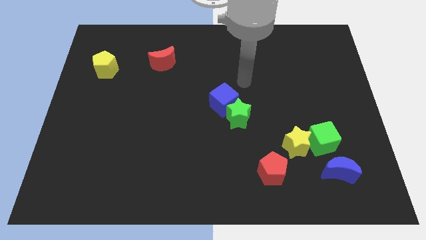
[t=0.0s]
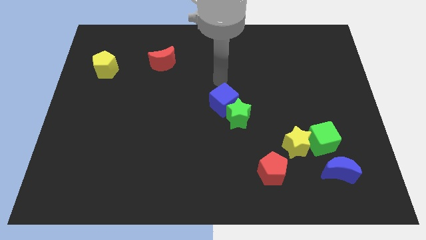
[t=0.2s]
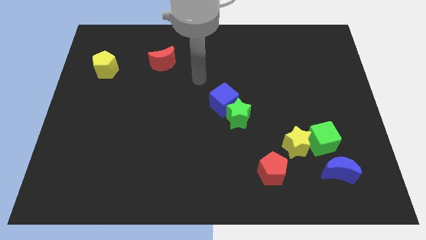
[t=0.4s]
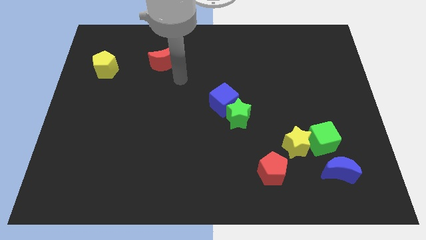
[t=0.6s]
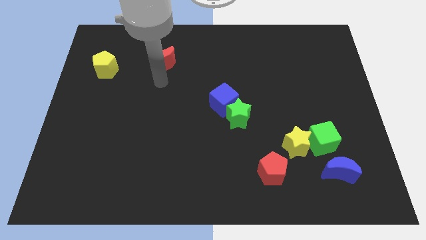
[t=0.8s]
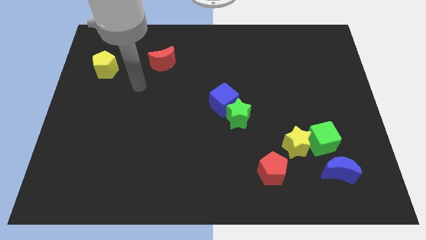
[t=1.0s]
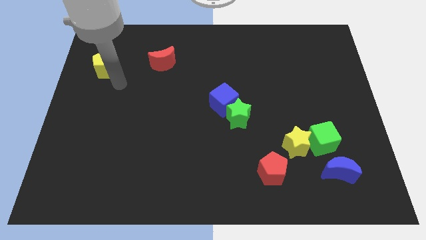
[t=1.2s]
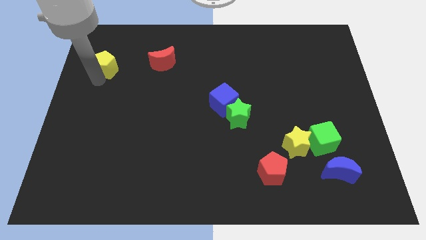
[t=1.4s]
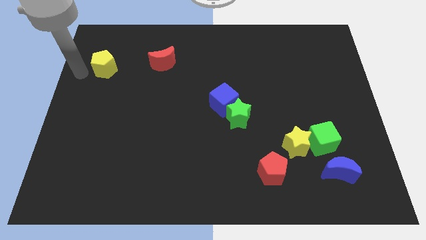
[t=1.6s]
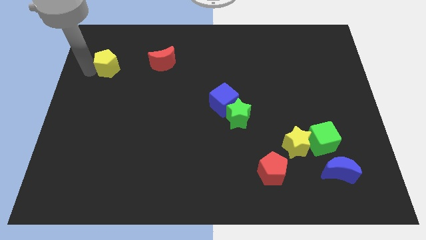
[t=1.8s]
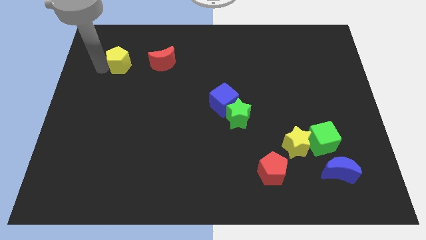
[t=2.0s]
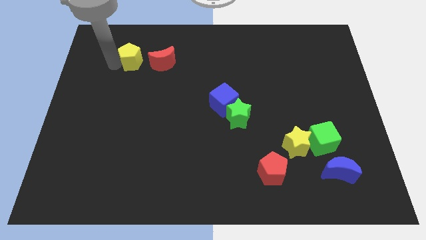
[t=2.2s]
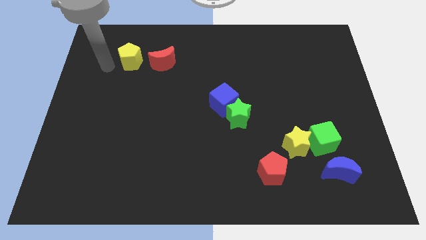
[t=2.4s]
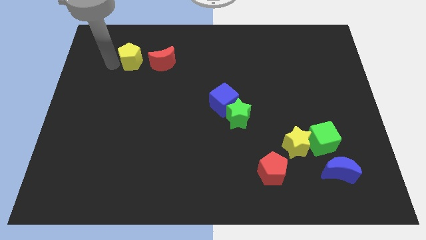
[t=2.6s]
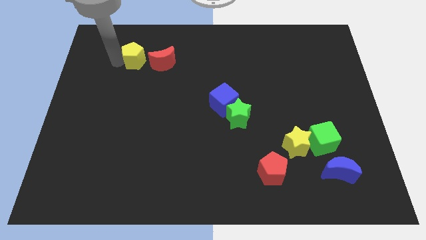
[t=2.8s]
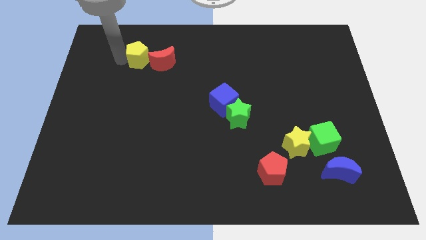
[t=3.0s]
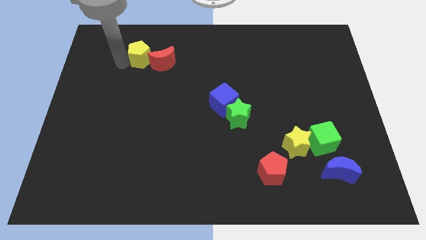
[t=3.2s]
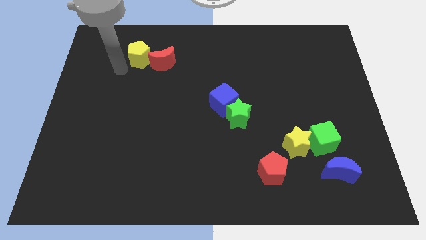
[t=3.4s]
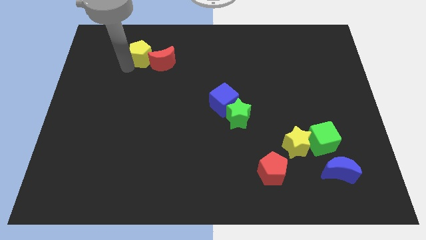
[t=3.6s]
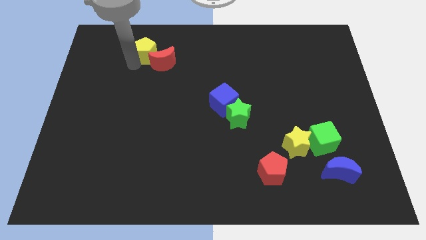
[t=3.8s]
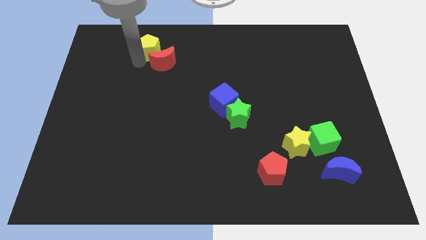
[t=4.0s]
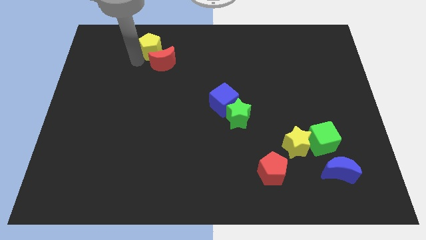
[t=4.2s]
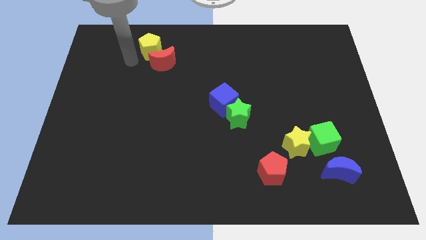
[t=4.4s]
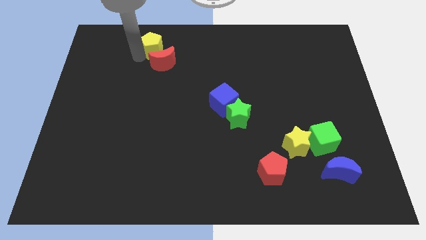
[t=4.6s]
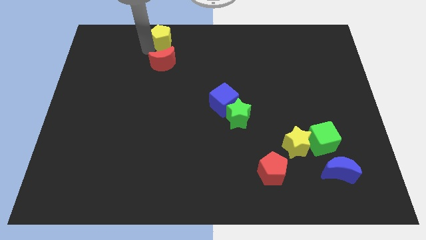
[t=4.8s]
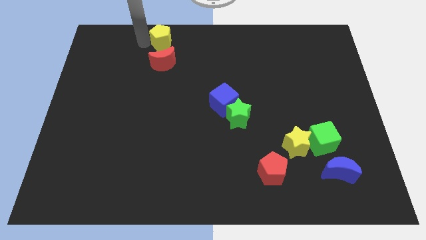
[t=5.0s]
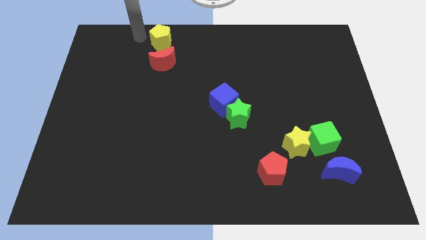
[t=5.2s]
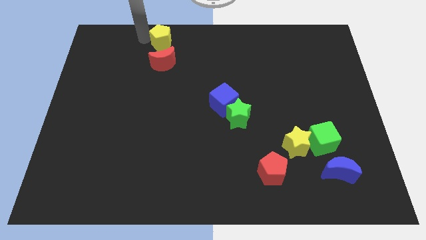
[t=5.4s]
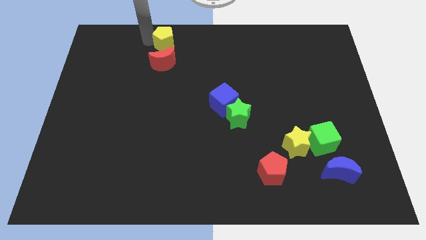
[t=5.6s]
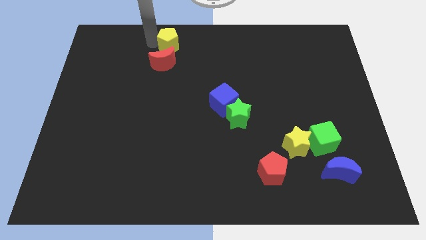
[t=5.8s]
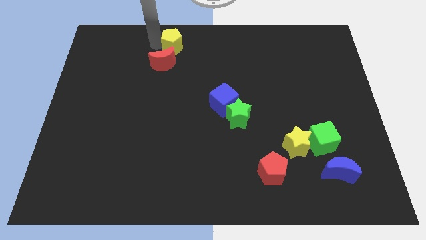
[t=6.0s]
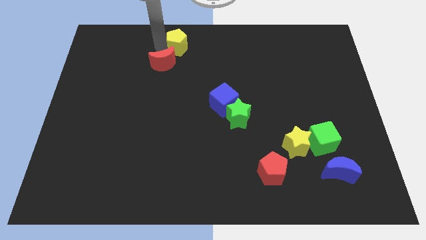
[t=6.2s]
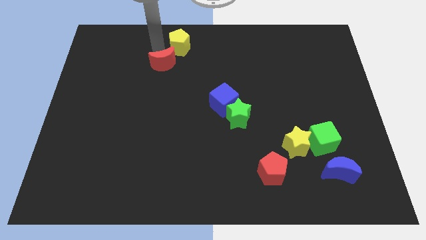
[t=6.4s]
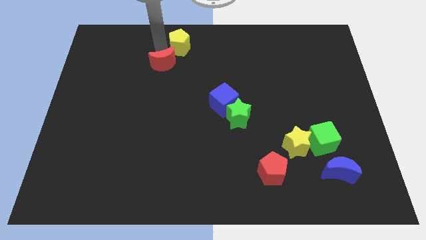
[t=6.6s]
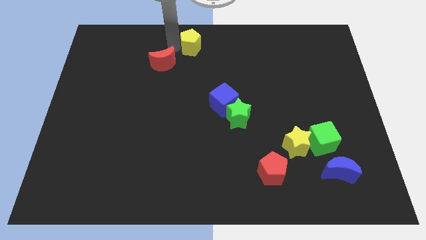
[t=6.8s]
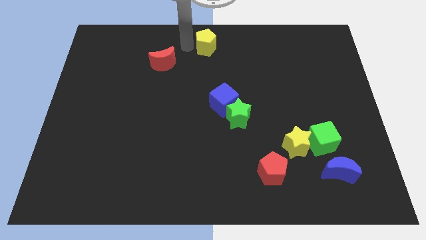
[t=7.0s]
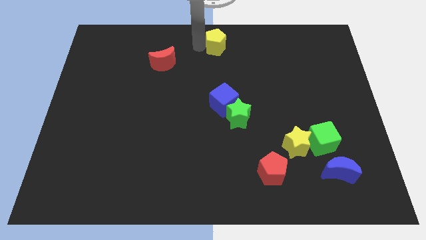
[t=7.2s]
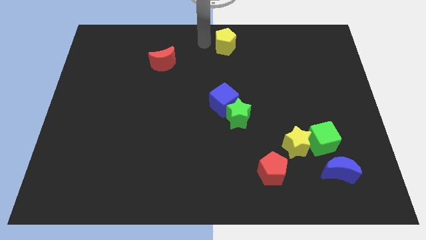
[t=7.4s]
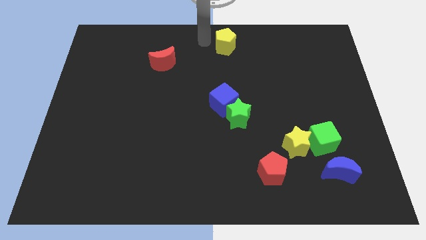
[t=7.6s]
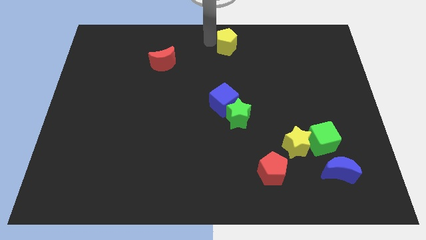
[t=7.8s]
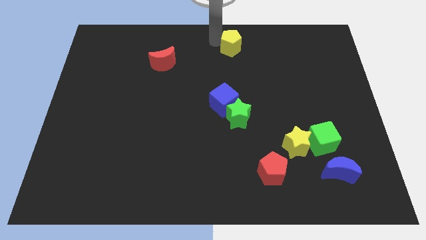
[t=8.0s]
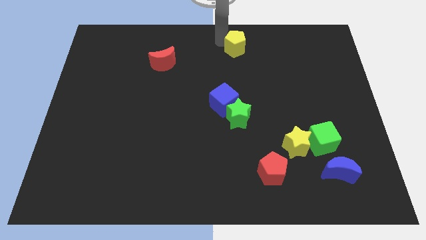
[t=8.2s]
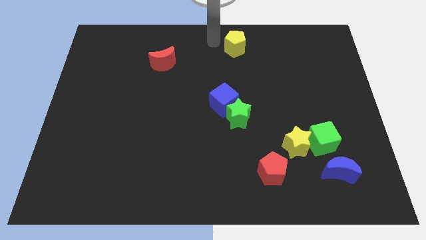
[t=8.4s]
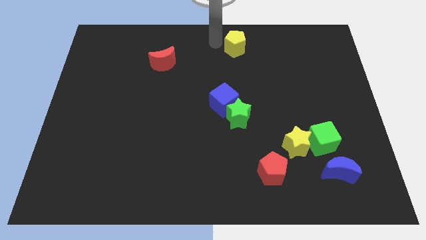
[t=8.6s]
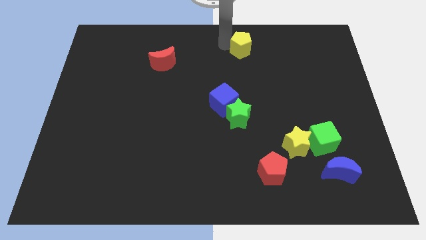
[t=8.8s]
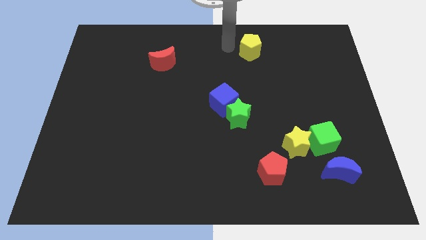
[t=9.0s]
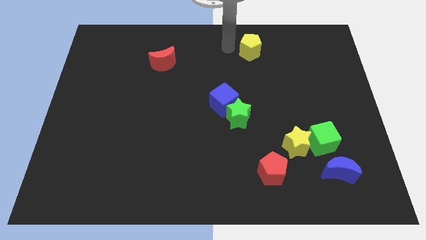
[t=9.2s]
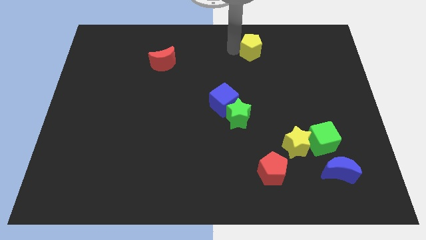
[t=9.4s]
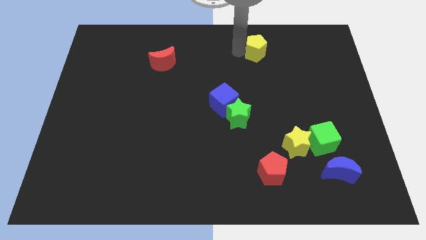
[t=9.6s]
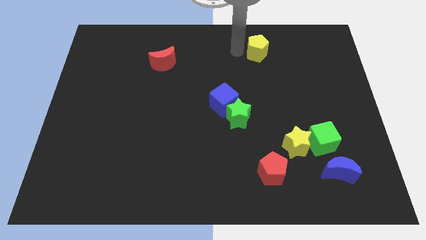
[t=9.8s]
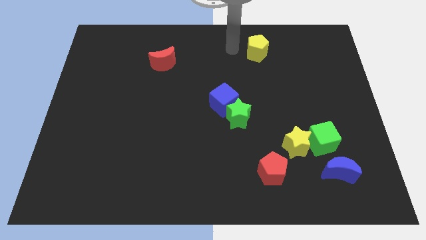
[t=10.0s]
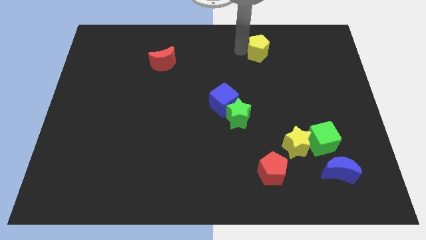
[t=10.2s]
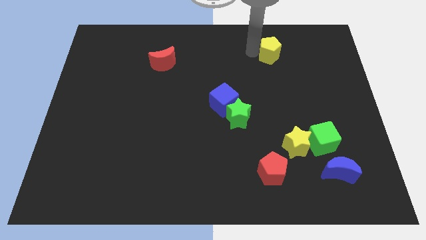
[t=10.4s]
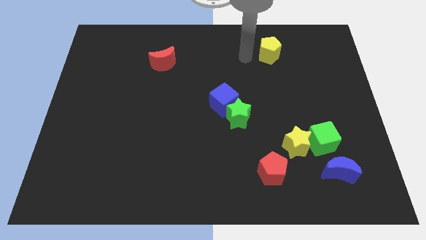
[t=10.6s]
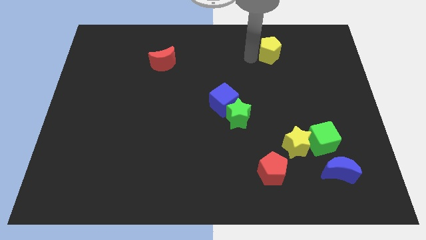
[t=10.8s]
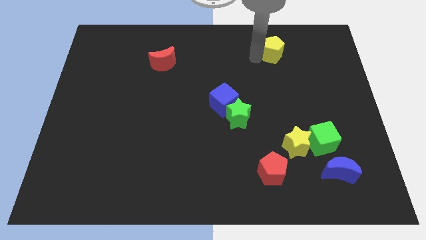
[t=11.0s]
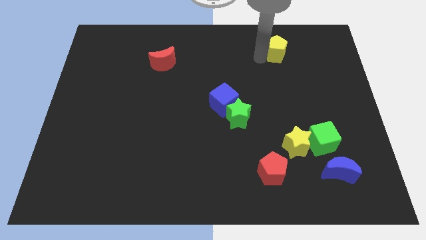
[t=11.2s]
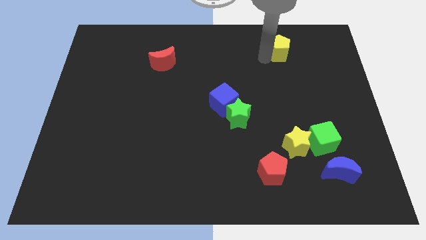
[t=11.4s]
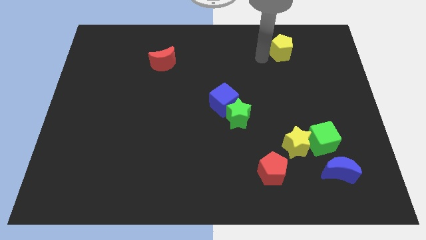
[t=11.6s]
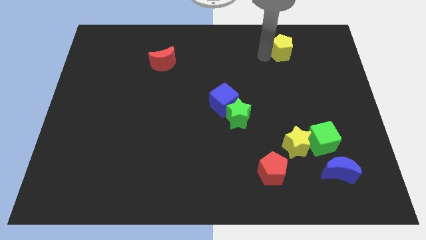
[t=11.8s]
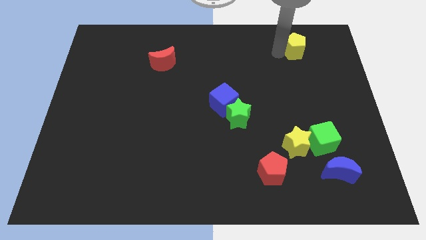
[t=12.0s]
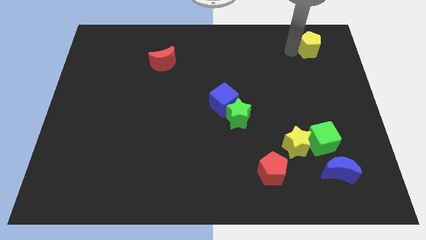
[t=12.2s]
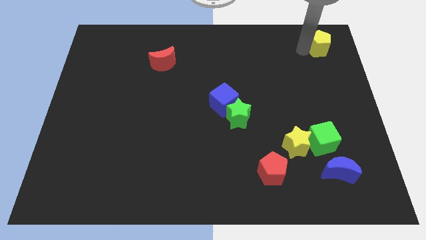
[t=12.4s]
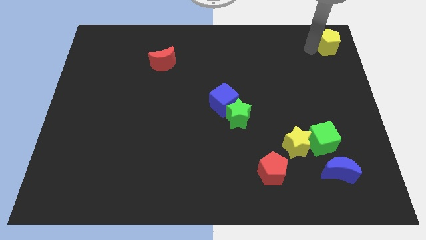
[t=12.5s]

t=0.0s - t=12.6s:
push the yellow pentagon to the upper right corner

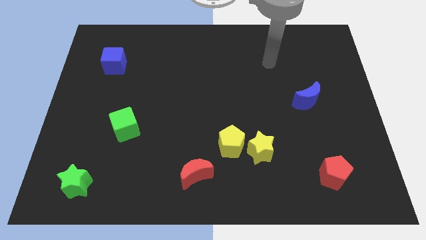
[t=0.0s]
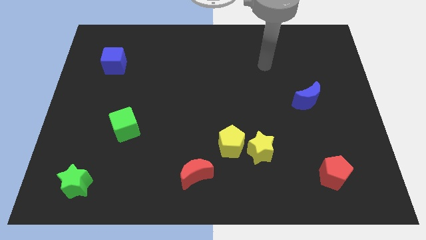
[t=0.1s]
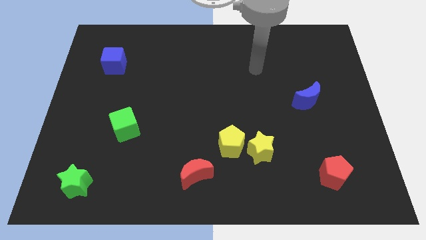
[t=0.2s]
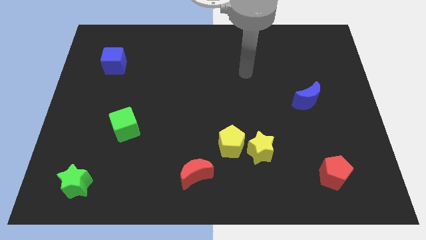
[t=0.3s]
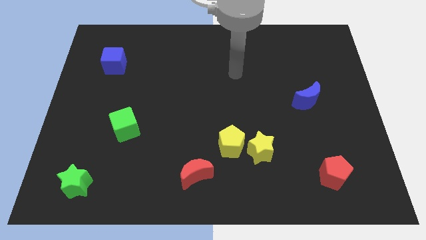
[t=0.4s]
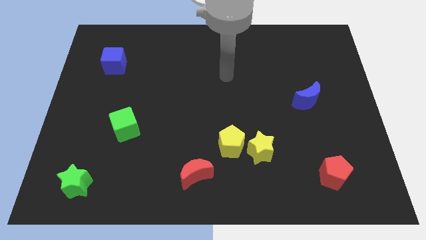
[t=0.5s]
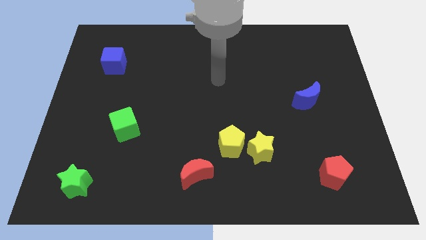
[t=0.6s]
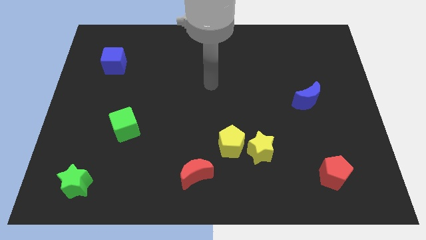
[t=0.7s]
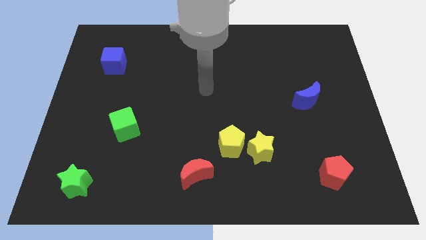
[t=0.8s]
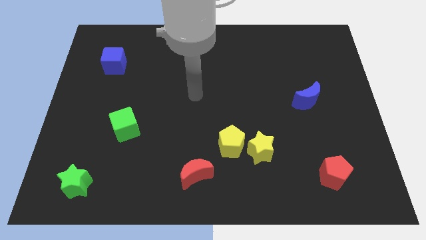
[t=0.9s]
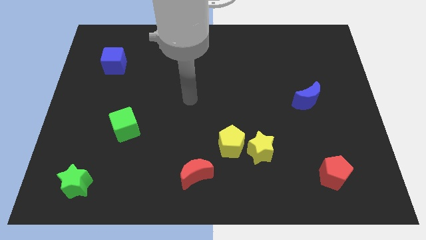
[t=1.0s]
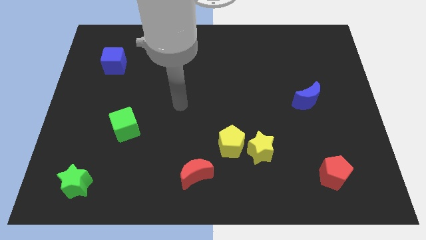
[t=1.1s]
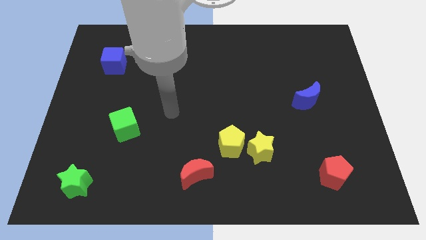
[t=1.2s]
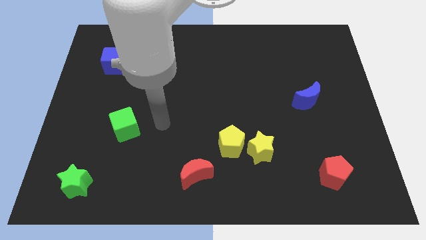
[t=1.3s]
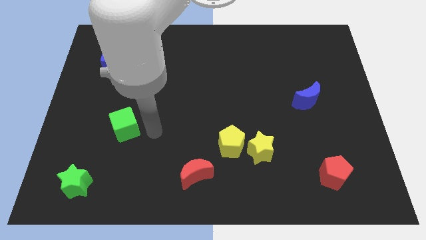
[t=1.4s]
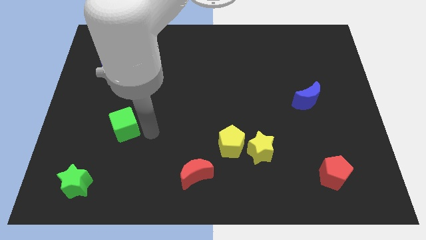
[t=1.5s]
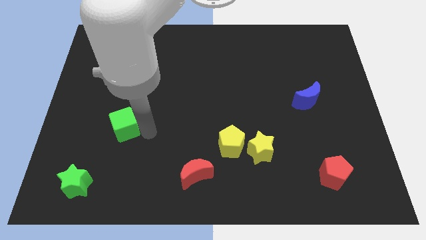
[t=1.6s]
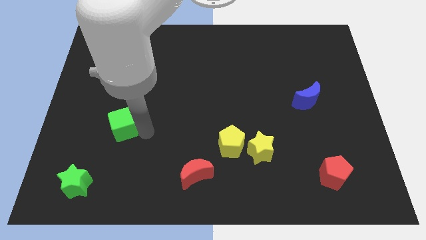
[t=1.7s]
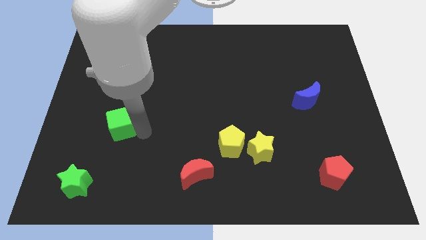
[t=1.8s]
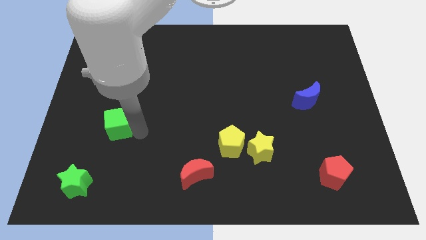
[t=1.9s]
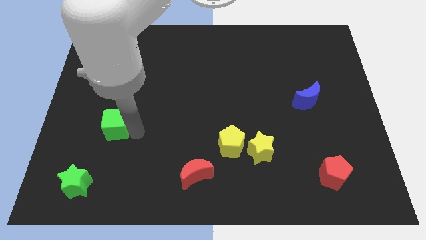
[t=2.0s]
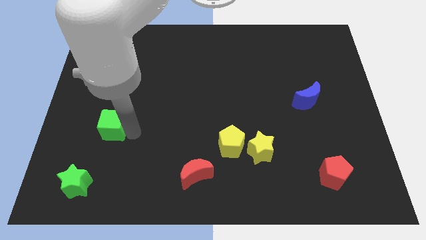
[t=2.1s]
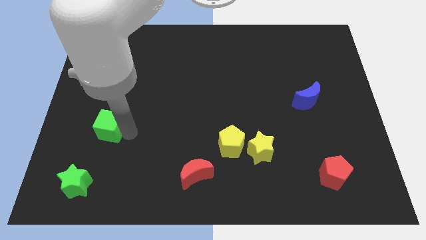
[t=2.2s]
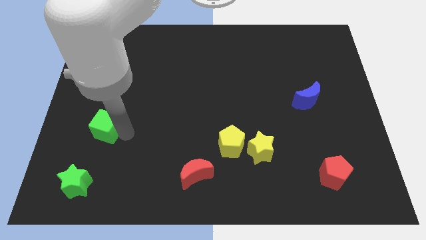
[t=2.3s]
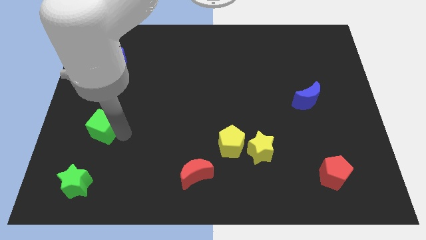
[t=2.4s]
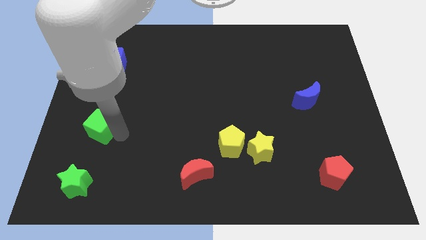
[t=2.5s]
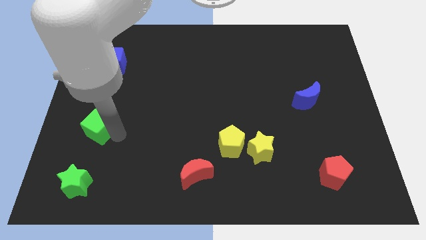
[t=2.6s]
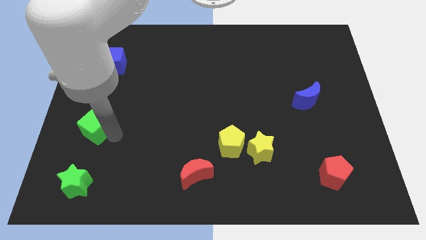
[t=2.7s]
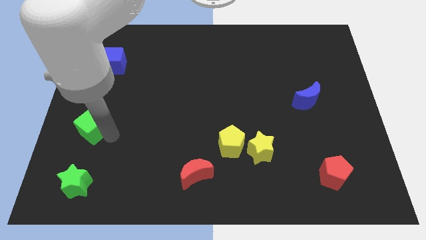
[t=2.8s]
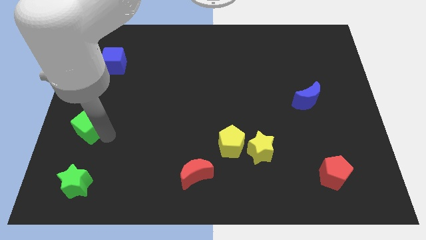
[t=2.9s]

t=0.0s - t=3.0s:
push the green cube to the center left
